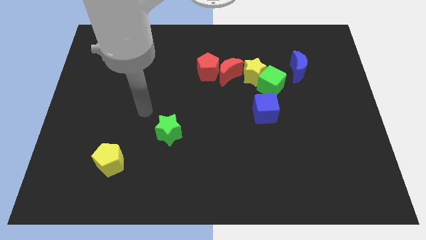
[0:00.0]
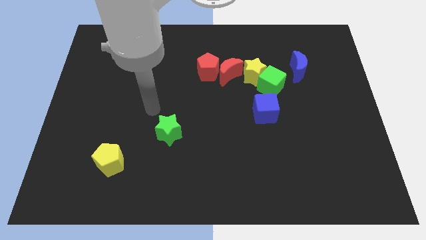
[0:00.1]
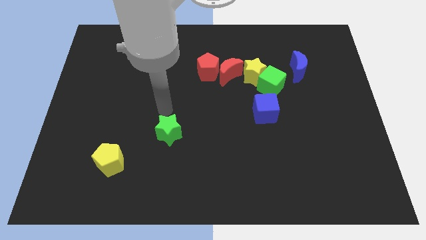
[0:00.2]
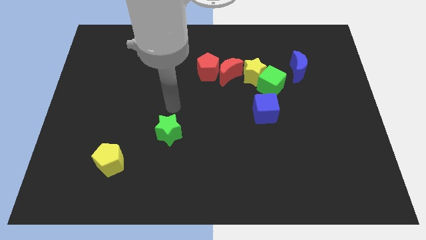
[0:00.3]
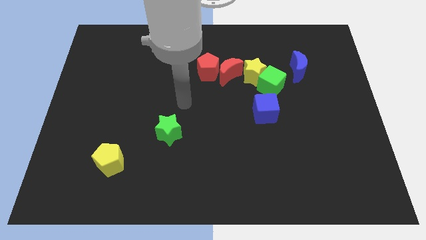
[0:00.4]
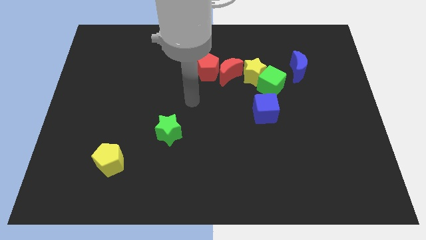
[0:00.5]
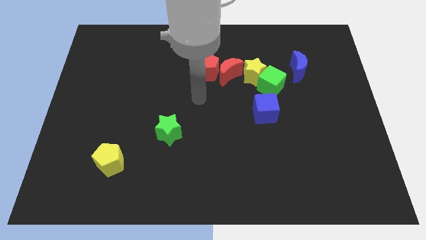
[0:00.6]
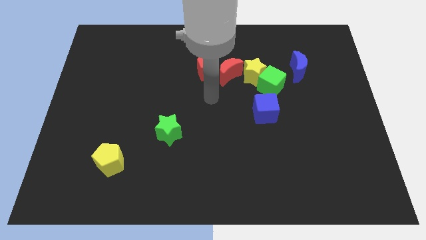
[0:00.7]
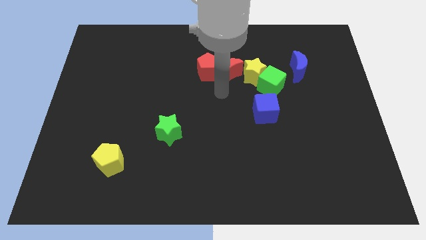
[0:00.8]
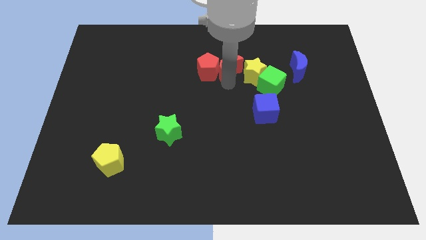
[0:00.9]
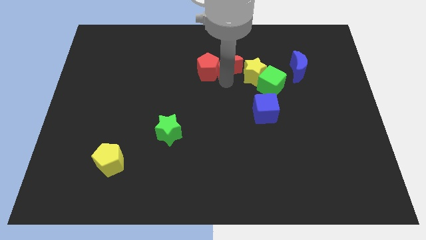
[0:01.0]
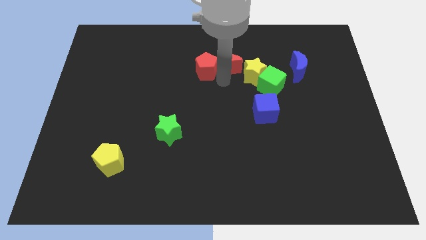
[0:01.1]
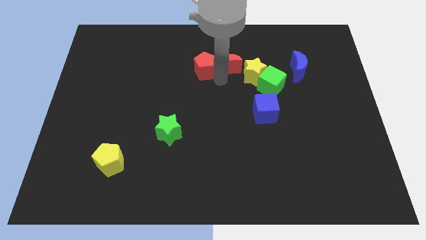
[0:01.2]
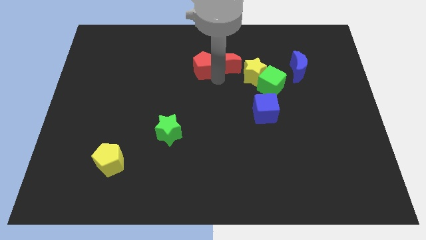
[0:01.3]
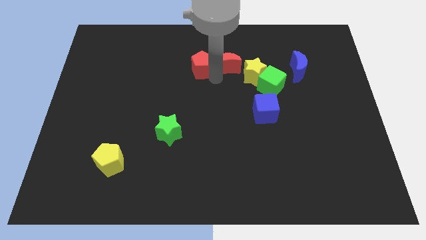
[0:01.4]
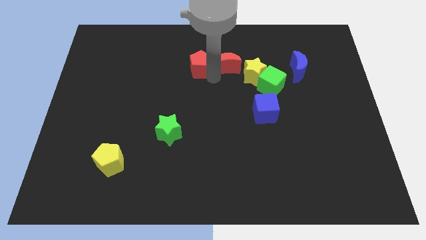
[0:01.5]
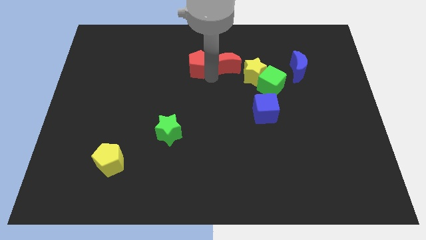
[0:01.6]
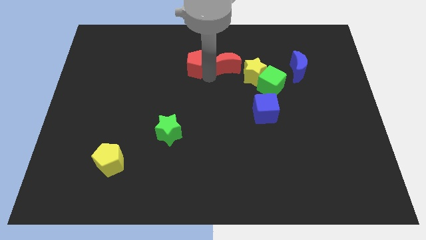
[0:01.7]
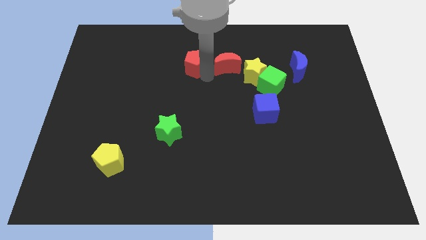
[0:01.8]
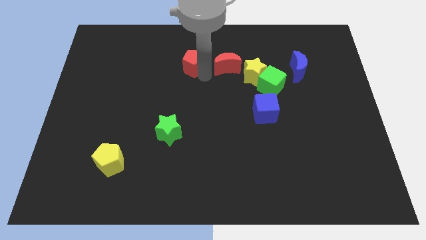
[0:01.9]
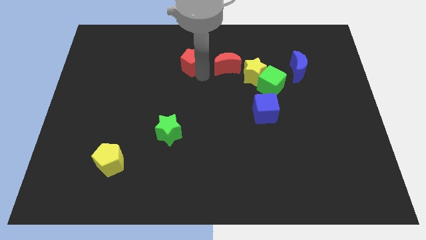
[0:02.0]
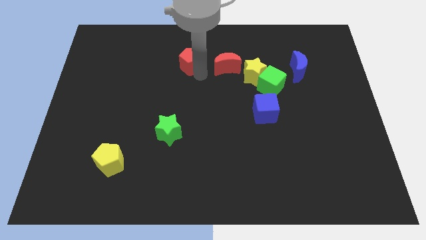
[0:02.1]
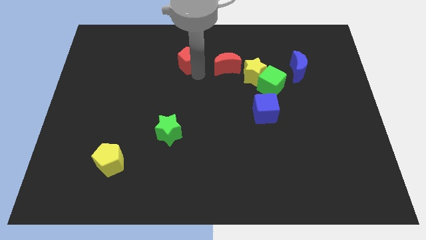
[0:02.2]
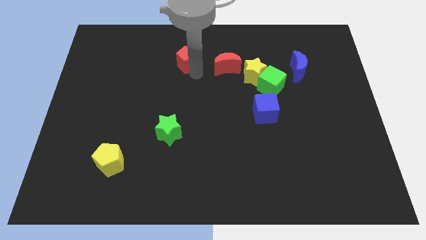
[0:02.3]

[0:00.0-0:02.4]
pull the red pentagon apart from the red moon

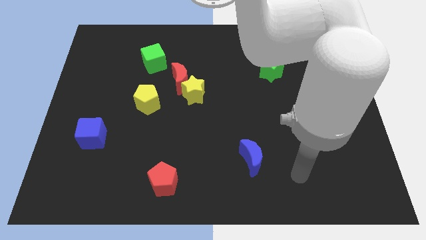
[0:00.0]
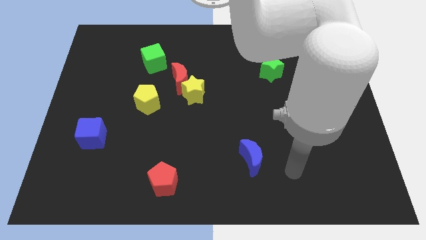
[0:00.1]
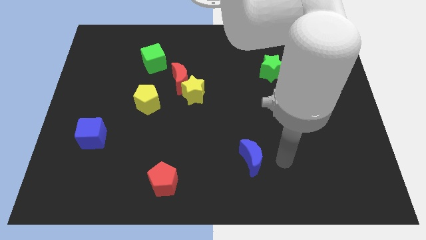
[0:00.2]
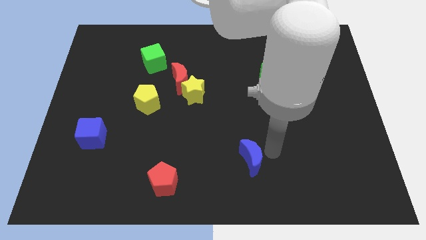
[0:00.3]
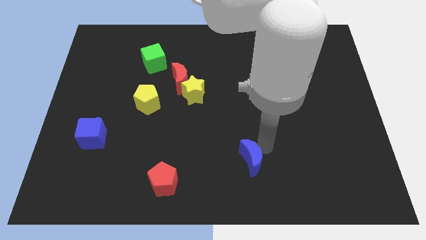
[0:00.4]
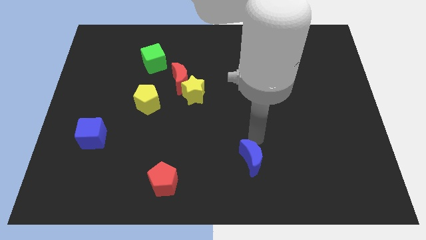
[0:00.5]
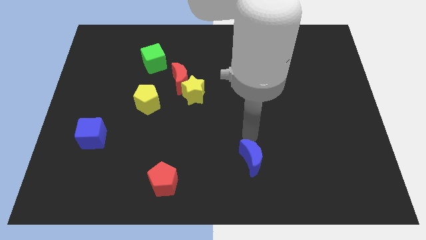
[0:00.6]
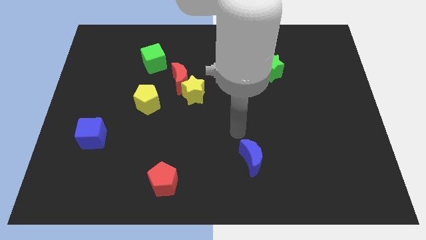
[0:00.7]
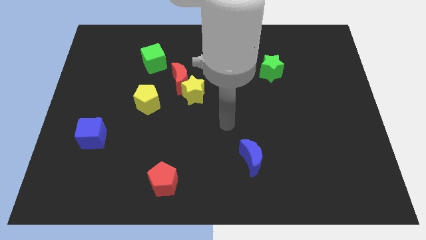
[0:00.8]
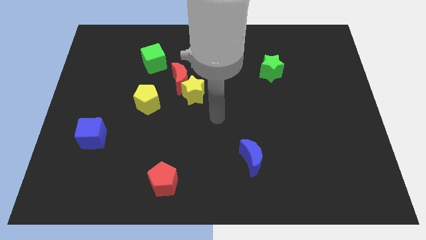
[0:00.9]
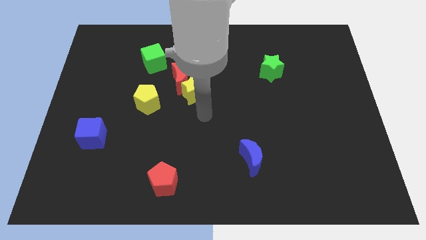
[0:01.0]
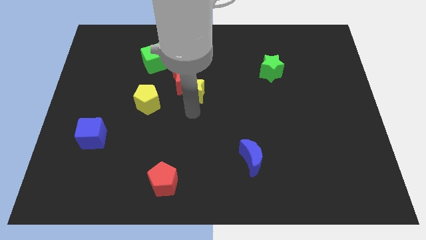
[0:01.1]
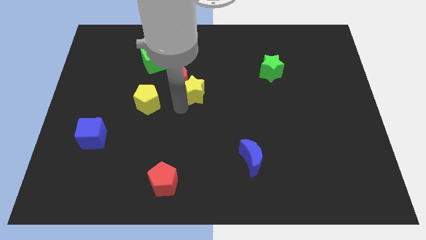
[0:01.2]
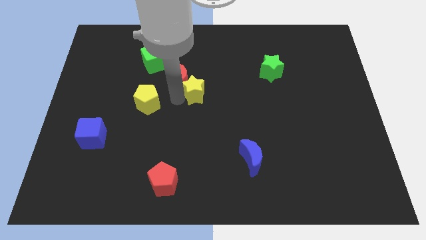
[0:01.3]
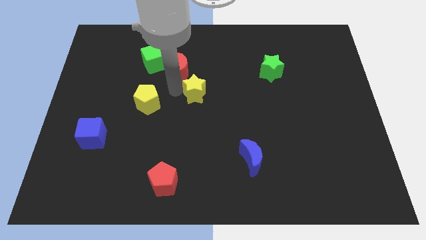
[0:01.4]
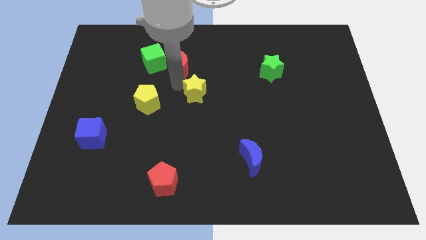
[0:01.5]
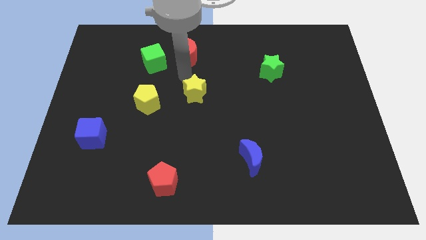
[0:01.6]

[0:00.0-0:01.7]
pull the yellow star apart from the red moon

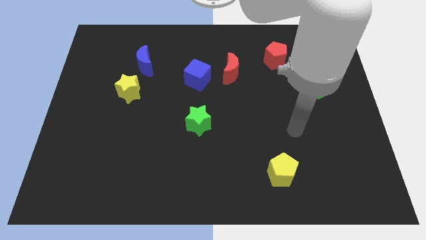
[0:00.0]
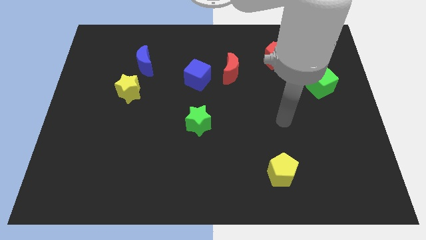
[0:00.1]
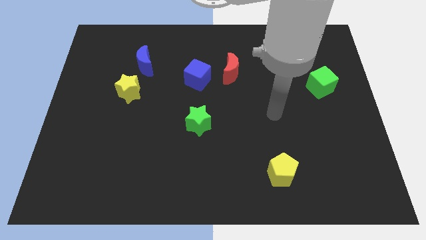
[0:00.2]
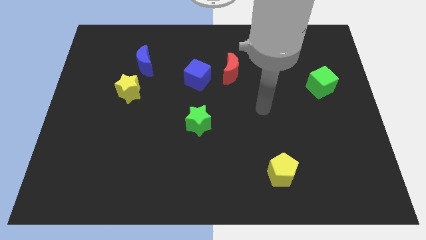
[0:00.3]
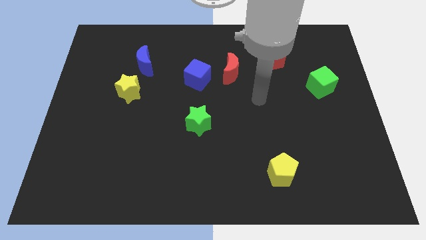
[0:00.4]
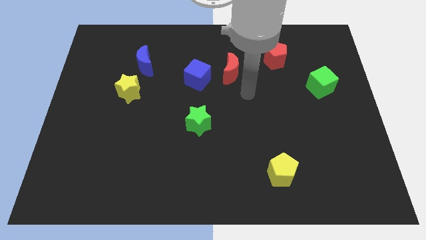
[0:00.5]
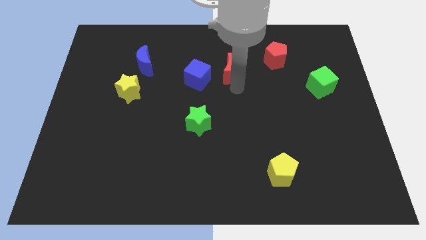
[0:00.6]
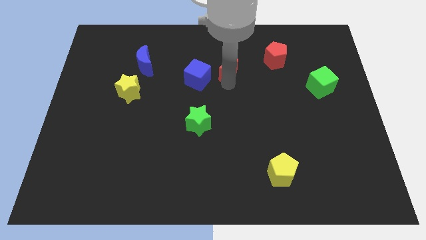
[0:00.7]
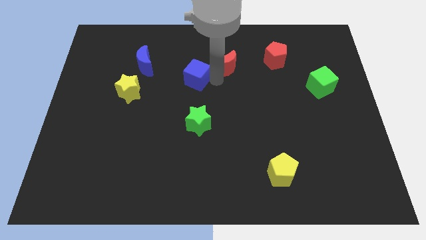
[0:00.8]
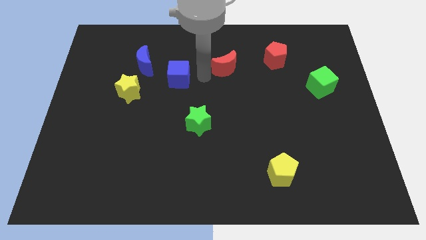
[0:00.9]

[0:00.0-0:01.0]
separate the red moon from the blue cube

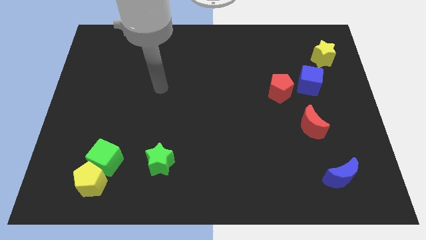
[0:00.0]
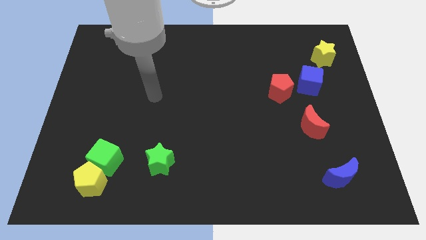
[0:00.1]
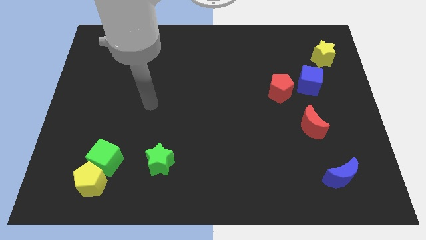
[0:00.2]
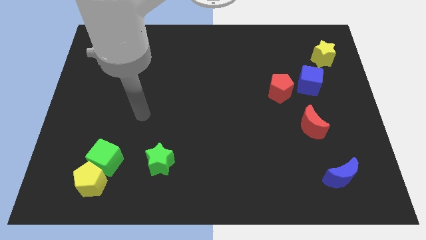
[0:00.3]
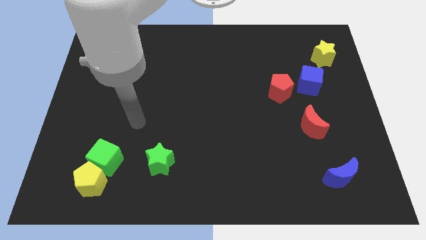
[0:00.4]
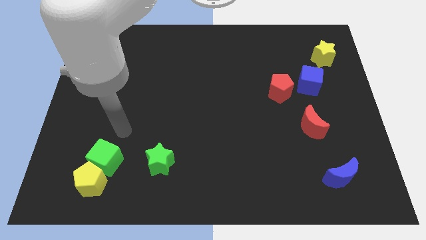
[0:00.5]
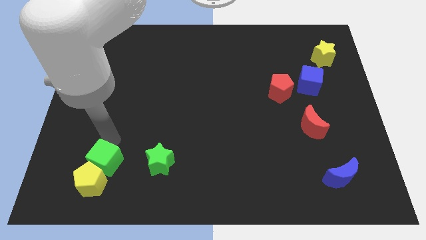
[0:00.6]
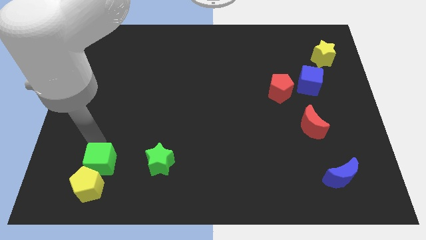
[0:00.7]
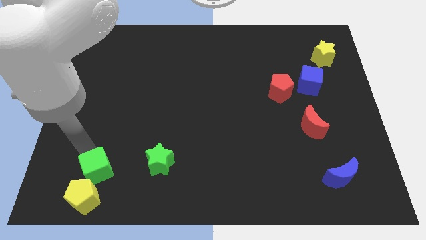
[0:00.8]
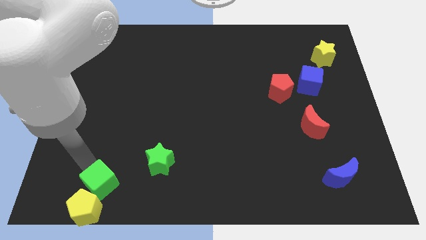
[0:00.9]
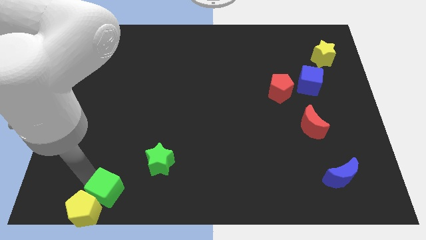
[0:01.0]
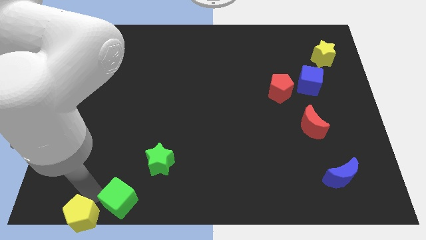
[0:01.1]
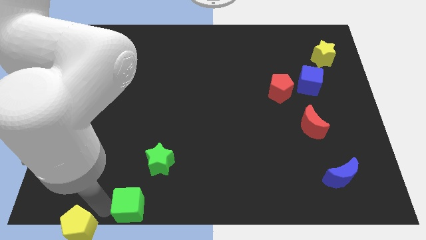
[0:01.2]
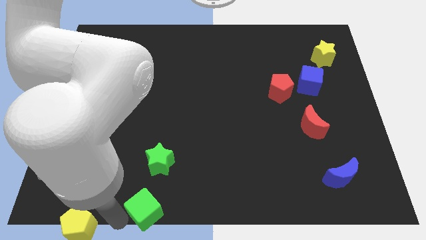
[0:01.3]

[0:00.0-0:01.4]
pull the green cube apart from the yellow pentagon

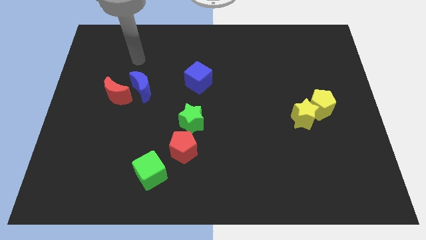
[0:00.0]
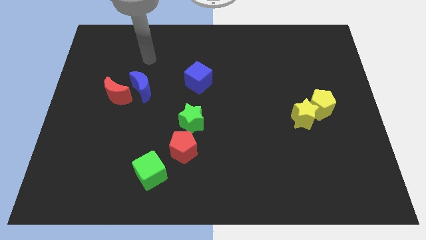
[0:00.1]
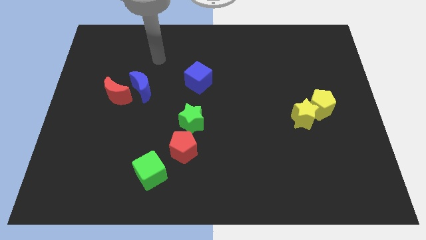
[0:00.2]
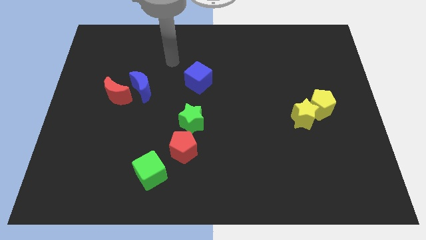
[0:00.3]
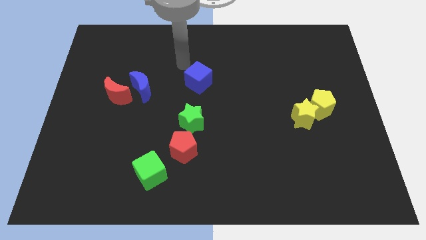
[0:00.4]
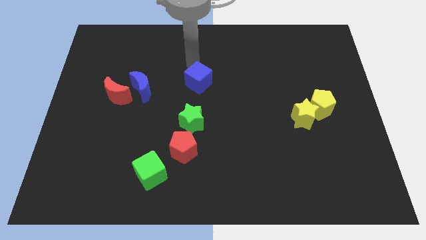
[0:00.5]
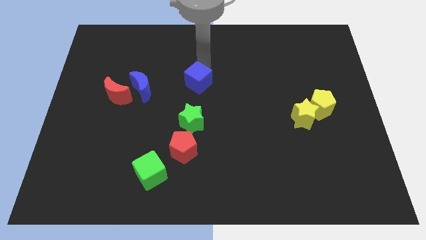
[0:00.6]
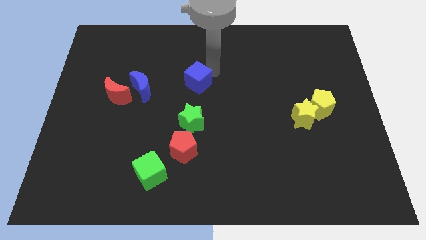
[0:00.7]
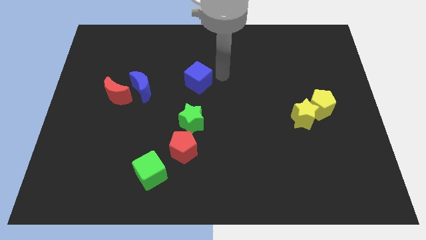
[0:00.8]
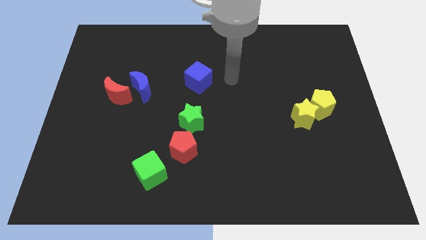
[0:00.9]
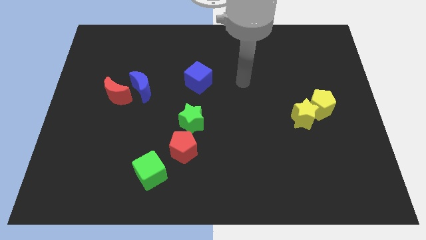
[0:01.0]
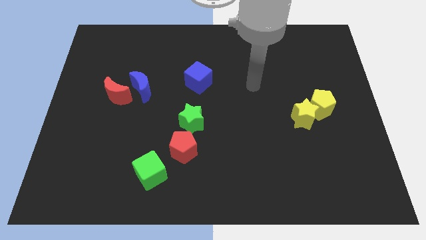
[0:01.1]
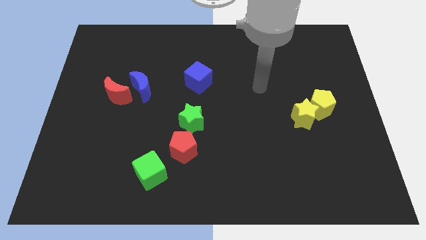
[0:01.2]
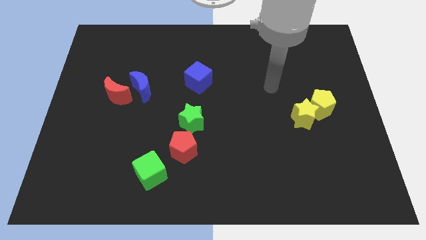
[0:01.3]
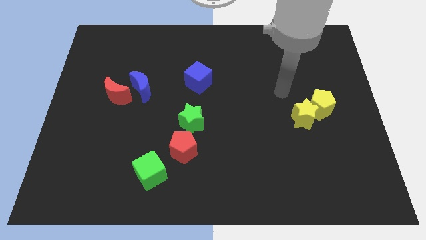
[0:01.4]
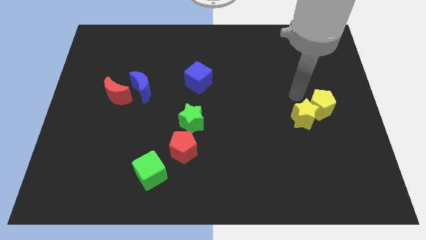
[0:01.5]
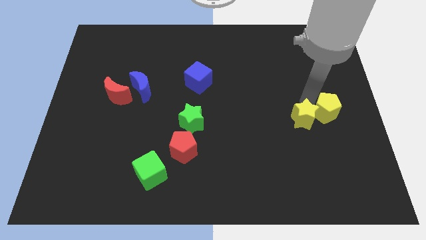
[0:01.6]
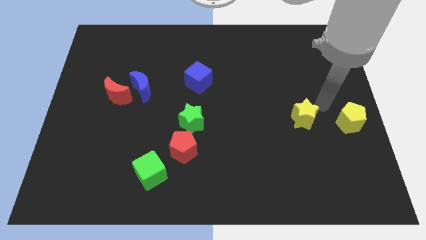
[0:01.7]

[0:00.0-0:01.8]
separate the yellow star from the yellow pentagon

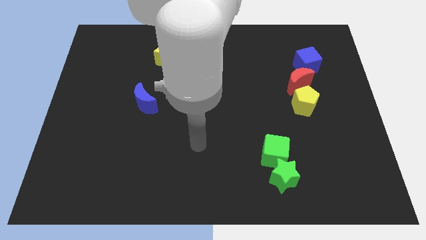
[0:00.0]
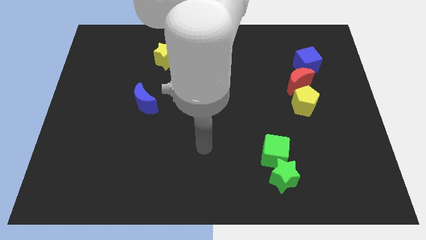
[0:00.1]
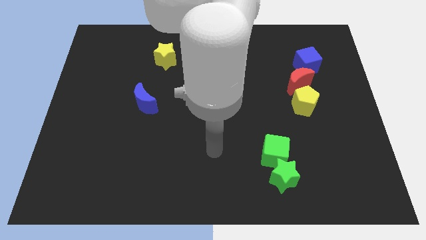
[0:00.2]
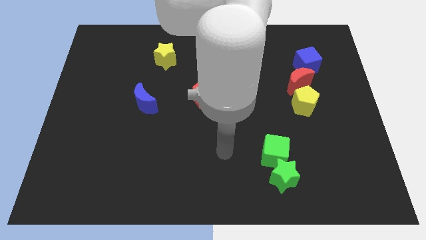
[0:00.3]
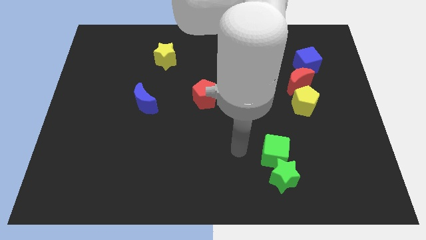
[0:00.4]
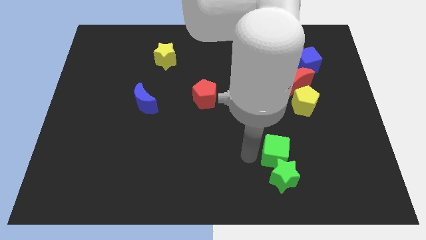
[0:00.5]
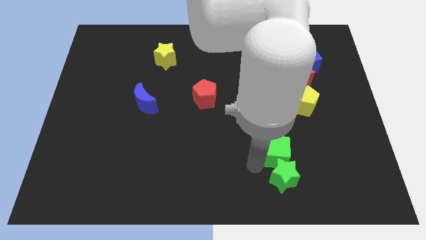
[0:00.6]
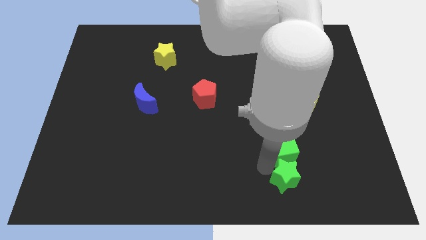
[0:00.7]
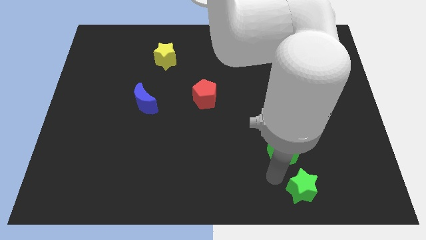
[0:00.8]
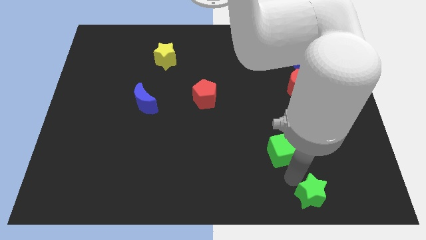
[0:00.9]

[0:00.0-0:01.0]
move the green cube away from the green star
